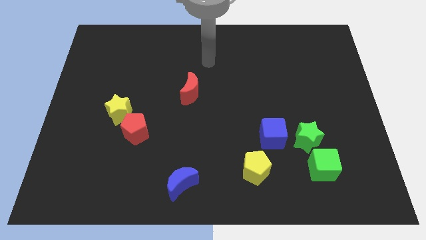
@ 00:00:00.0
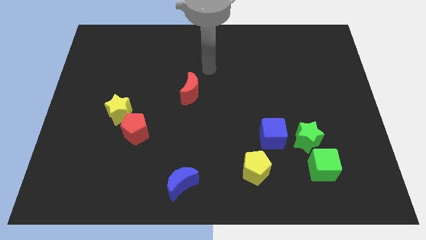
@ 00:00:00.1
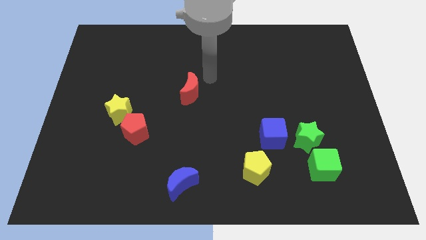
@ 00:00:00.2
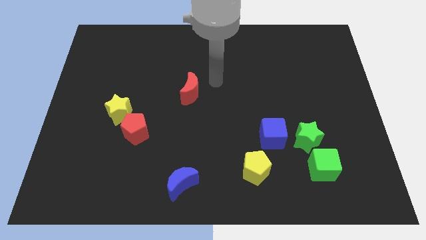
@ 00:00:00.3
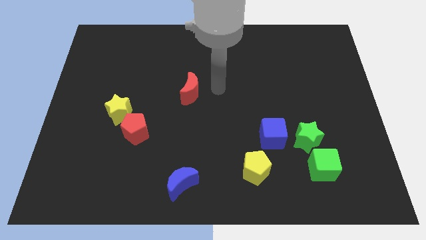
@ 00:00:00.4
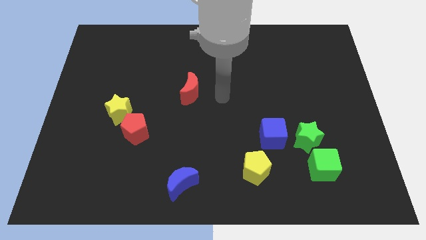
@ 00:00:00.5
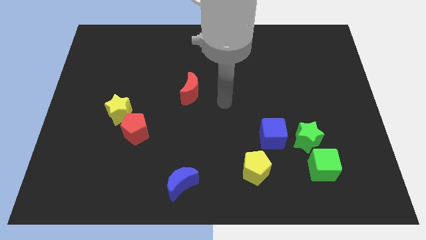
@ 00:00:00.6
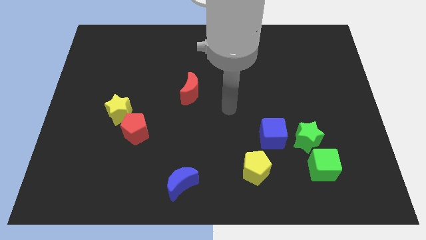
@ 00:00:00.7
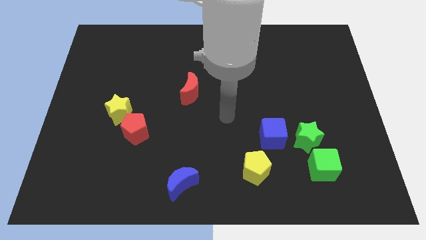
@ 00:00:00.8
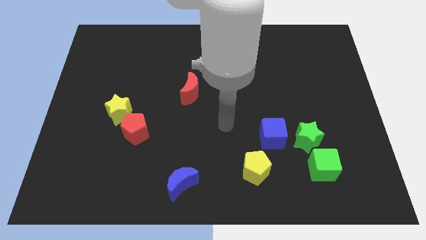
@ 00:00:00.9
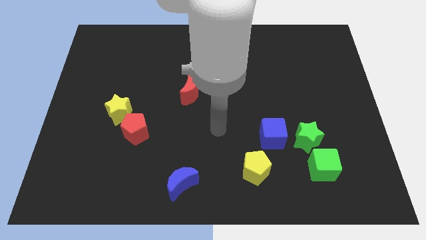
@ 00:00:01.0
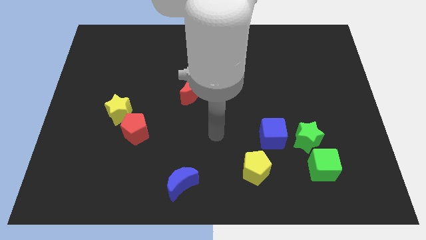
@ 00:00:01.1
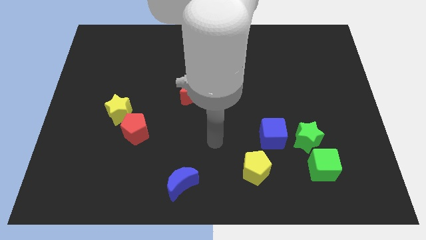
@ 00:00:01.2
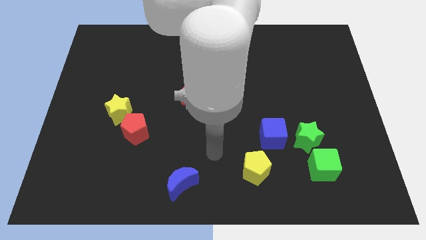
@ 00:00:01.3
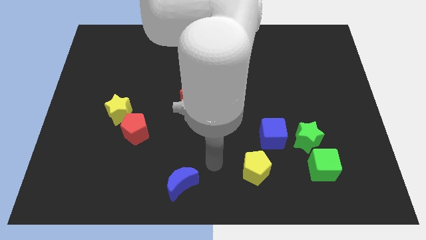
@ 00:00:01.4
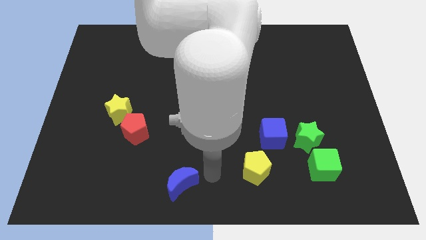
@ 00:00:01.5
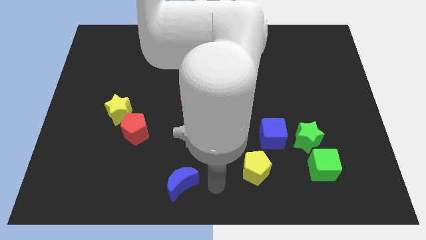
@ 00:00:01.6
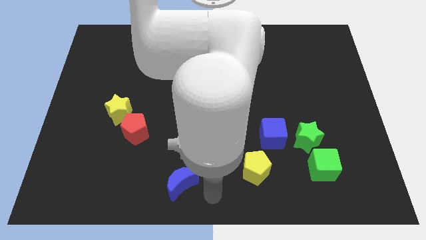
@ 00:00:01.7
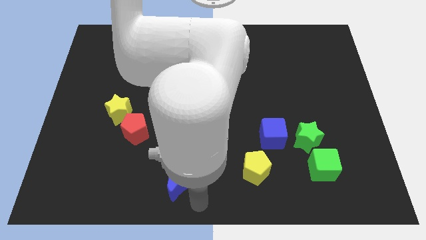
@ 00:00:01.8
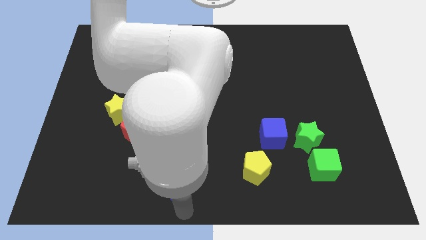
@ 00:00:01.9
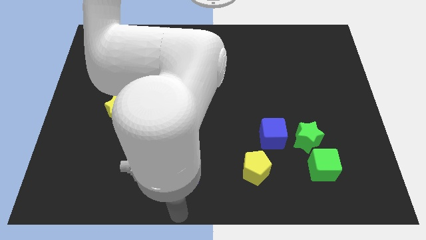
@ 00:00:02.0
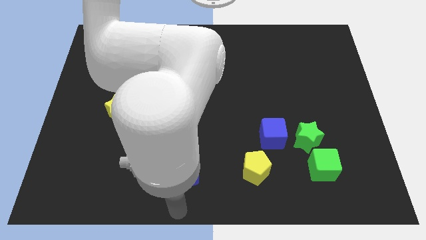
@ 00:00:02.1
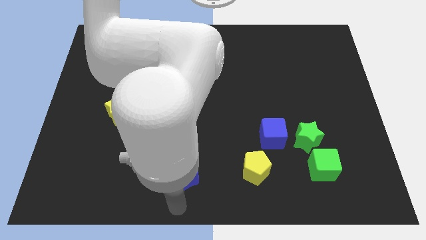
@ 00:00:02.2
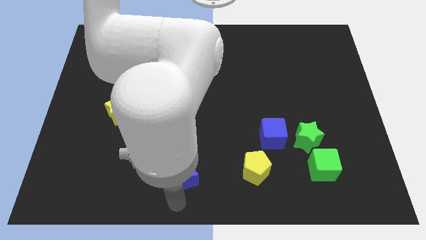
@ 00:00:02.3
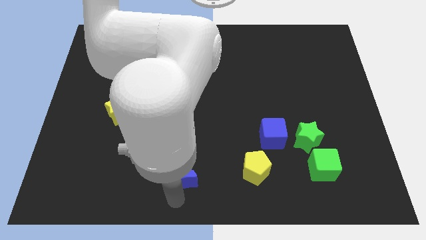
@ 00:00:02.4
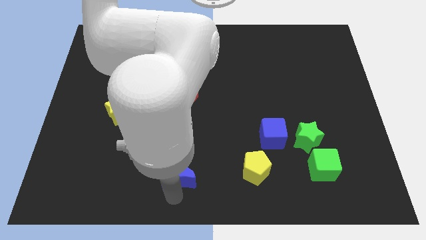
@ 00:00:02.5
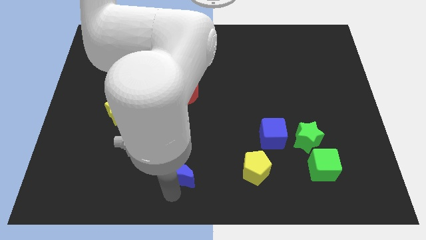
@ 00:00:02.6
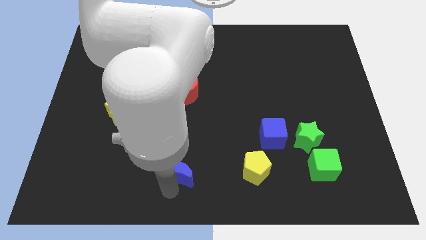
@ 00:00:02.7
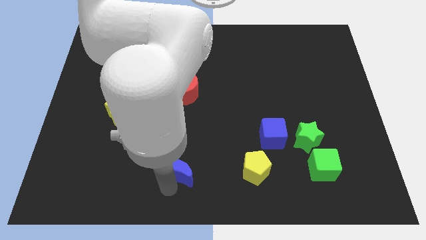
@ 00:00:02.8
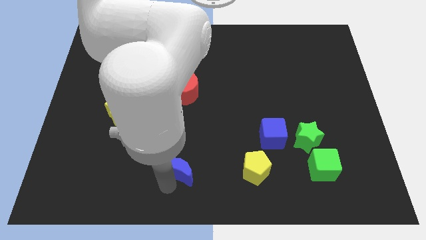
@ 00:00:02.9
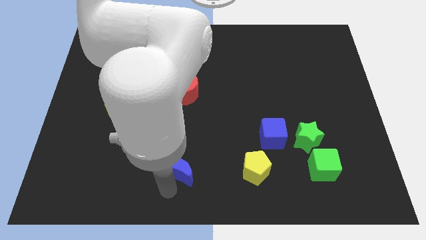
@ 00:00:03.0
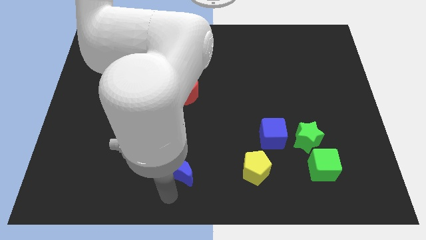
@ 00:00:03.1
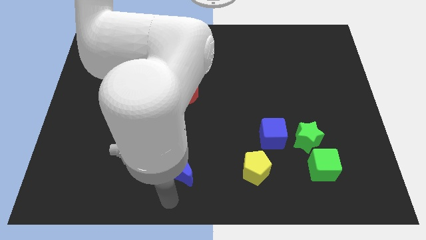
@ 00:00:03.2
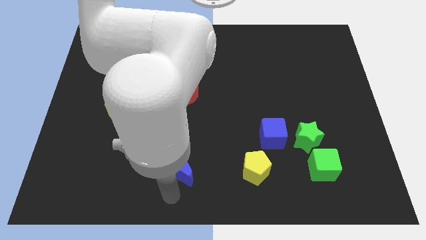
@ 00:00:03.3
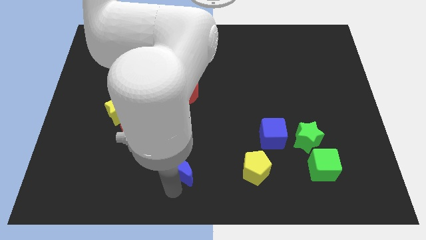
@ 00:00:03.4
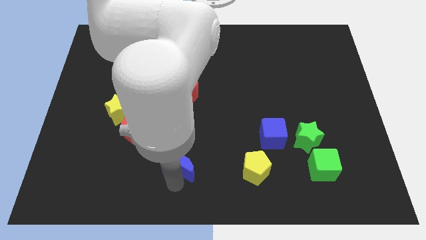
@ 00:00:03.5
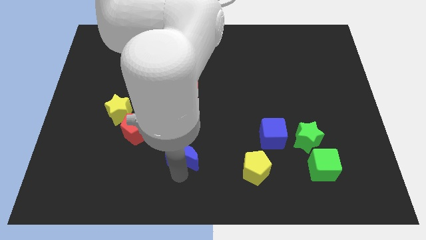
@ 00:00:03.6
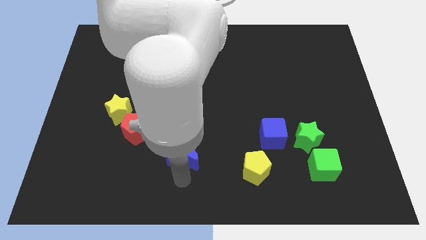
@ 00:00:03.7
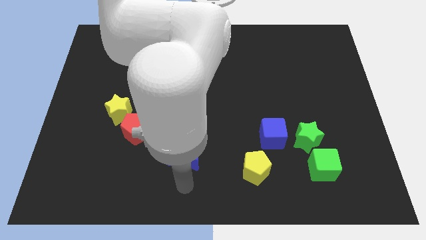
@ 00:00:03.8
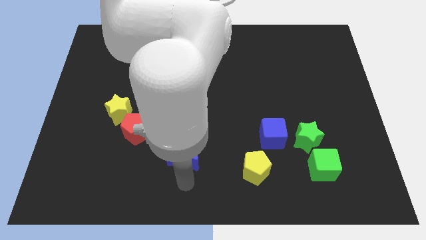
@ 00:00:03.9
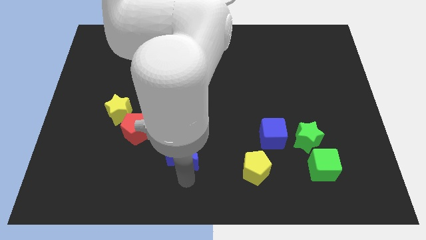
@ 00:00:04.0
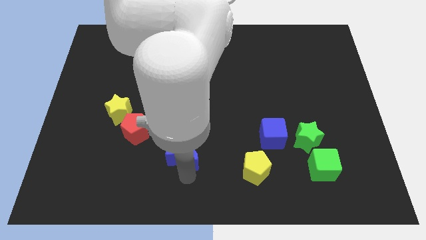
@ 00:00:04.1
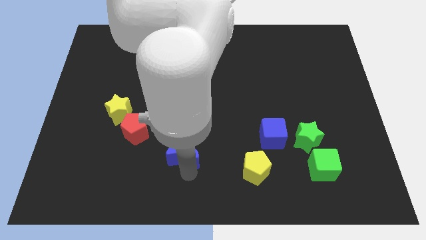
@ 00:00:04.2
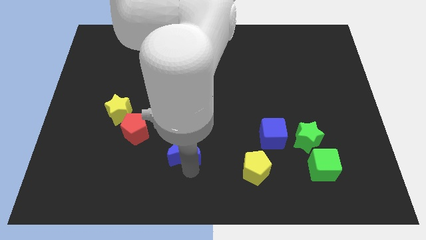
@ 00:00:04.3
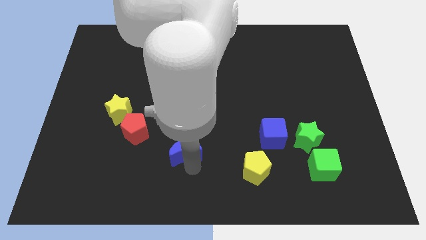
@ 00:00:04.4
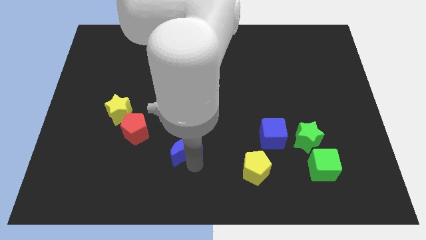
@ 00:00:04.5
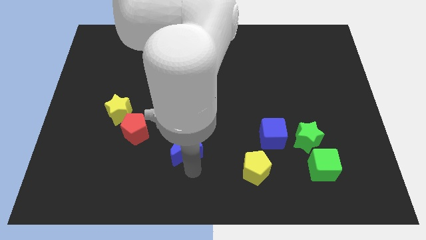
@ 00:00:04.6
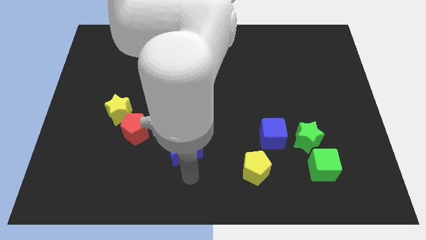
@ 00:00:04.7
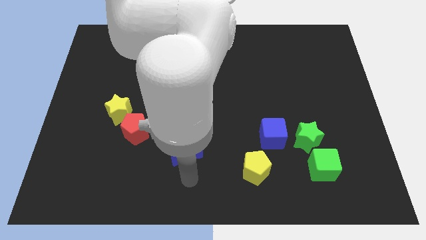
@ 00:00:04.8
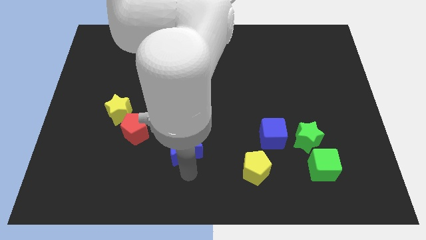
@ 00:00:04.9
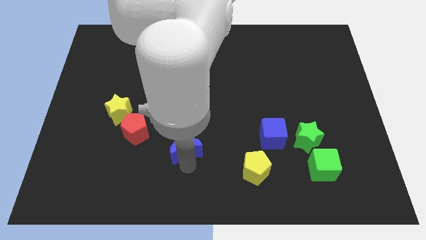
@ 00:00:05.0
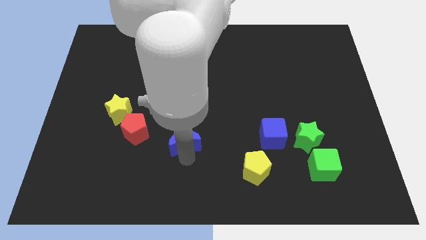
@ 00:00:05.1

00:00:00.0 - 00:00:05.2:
move the blue moon to the right side of the red pentagon

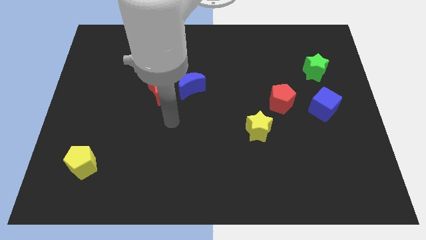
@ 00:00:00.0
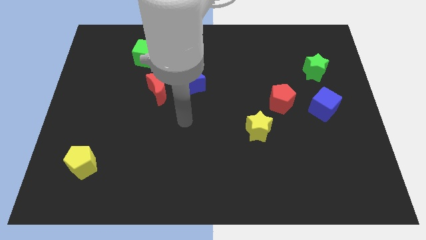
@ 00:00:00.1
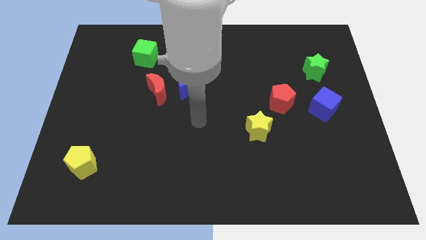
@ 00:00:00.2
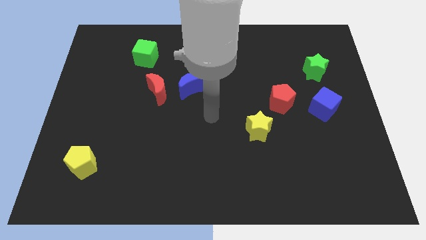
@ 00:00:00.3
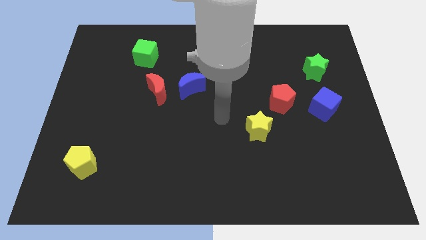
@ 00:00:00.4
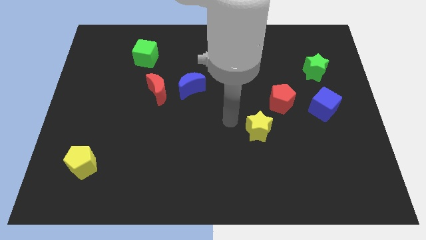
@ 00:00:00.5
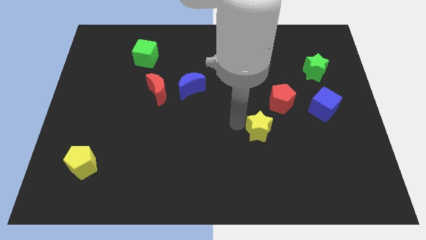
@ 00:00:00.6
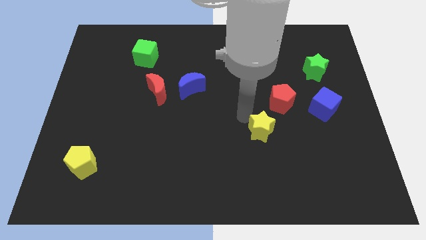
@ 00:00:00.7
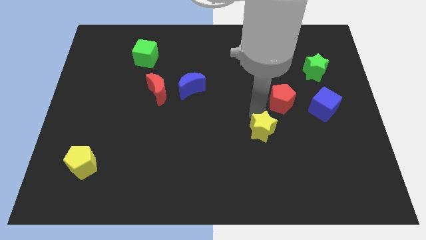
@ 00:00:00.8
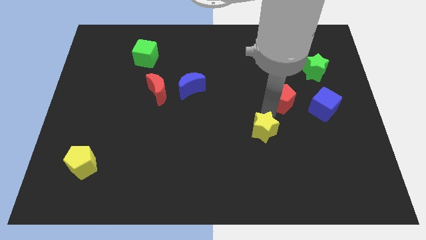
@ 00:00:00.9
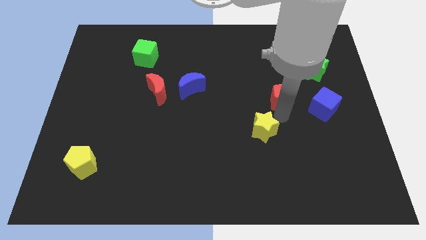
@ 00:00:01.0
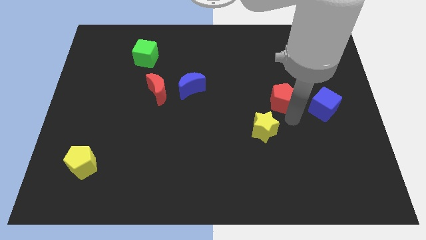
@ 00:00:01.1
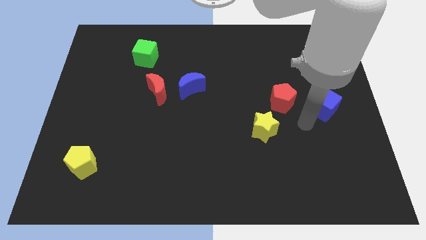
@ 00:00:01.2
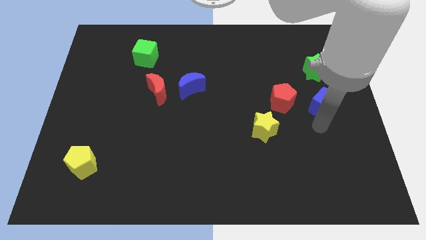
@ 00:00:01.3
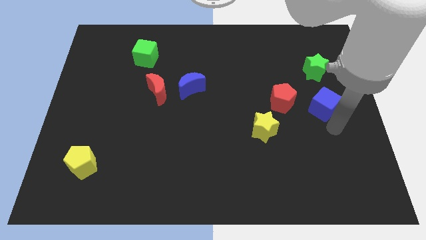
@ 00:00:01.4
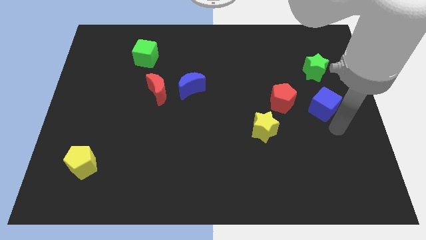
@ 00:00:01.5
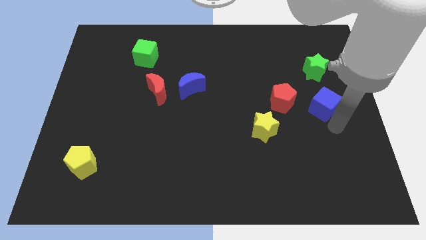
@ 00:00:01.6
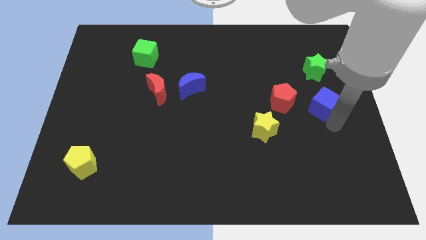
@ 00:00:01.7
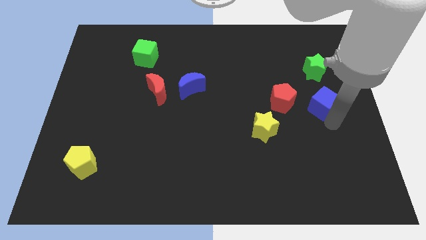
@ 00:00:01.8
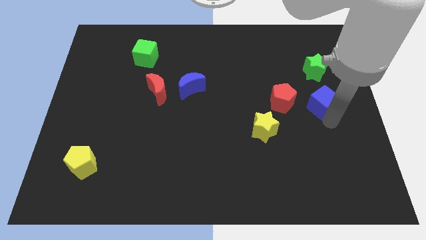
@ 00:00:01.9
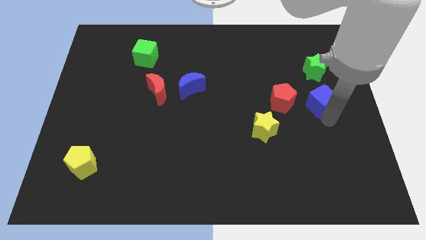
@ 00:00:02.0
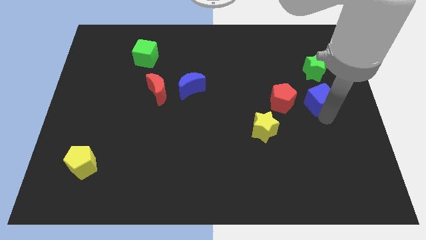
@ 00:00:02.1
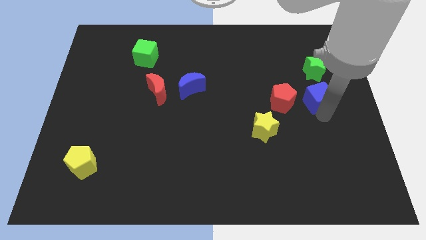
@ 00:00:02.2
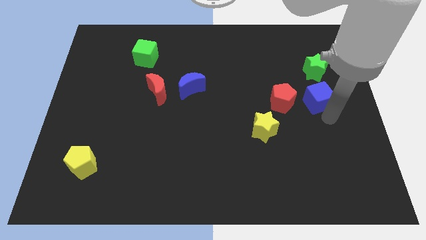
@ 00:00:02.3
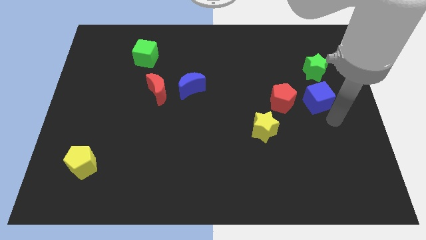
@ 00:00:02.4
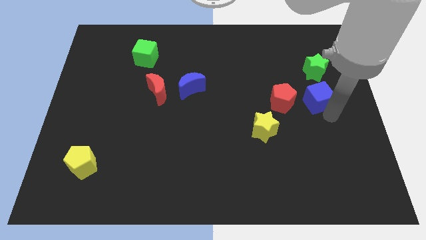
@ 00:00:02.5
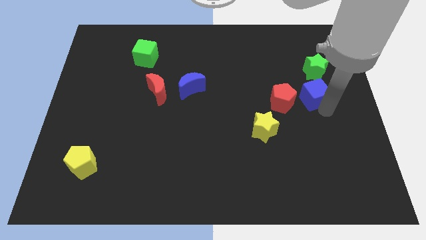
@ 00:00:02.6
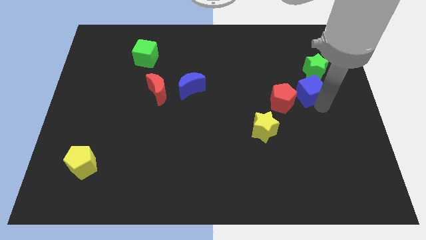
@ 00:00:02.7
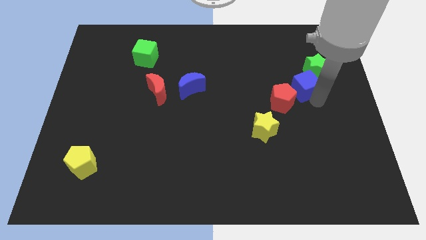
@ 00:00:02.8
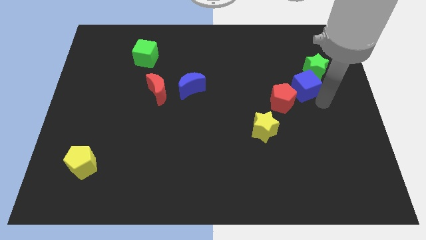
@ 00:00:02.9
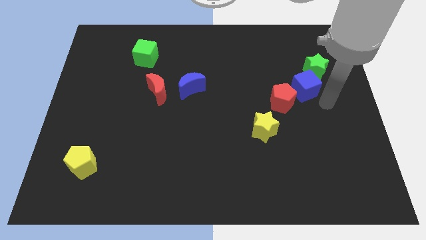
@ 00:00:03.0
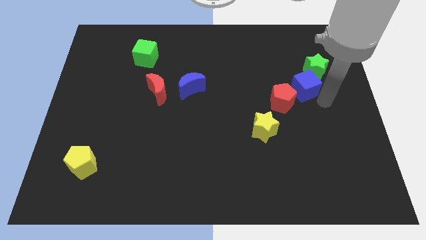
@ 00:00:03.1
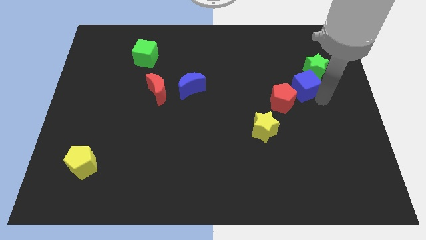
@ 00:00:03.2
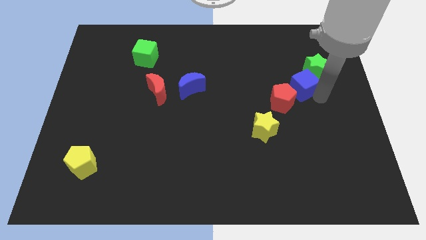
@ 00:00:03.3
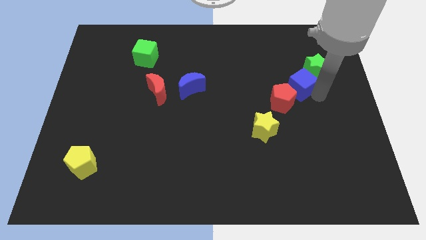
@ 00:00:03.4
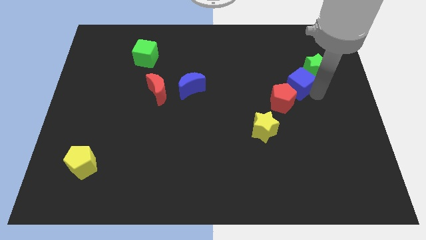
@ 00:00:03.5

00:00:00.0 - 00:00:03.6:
push the blue cube to the top of the red pentagon
